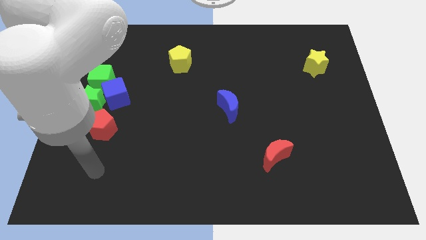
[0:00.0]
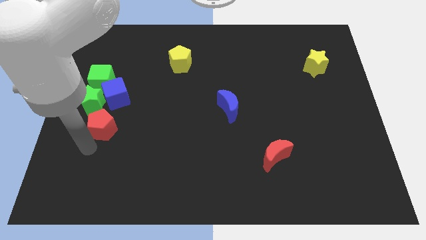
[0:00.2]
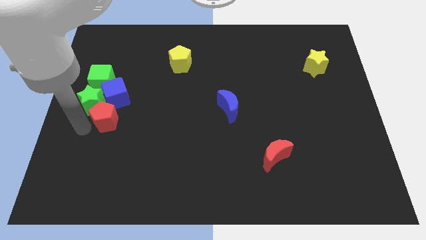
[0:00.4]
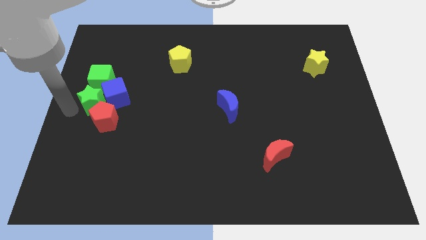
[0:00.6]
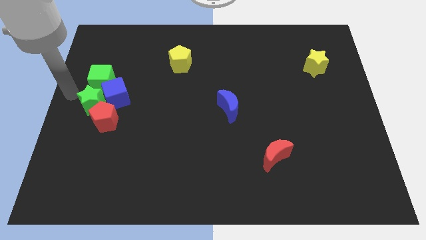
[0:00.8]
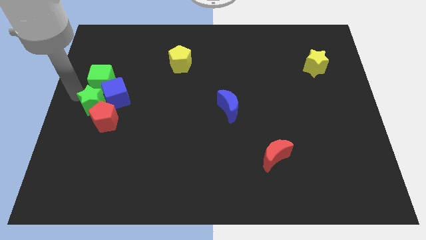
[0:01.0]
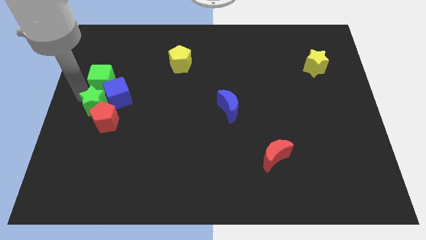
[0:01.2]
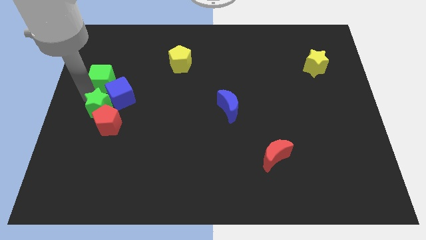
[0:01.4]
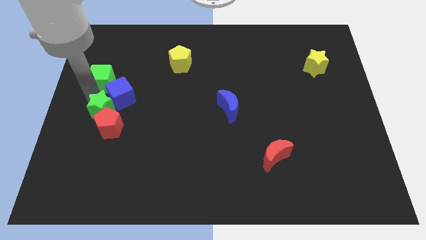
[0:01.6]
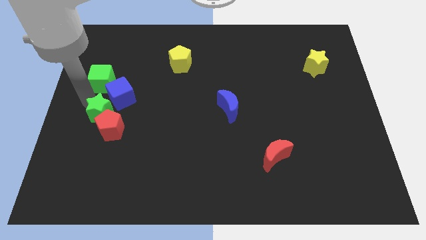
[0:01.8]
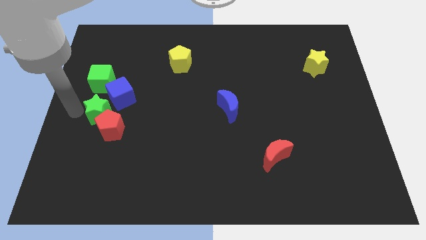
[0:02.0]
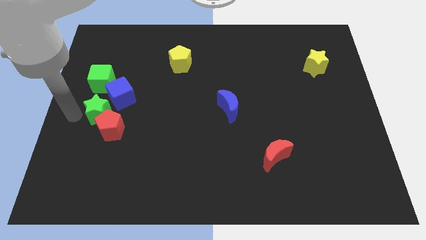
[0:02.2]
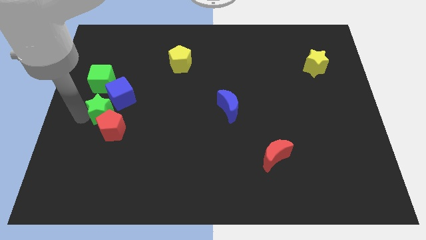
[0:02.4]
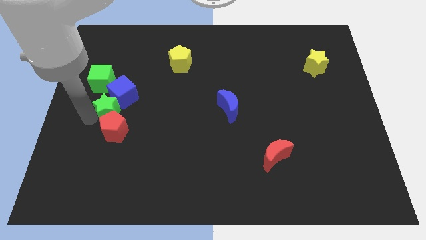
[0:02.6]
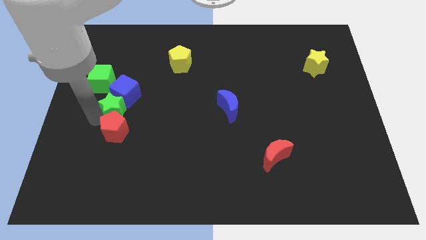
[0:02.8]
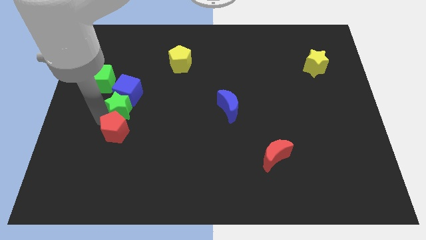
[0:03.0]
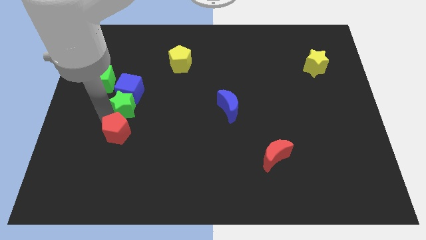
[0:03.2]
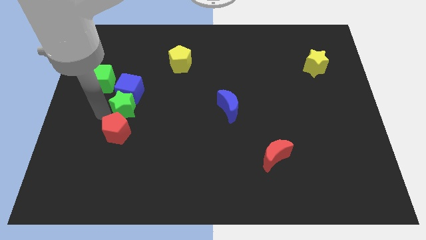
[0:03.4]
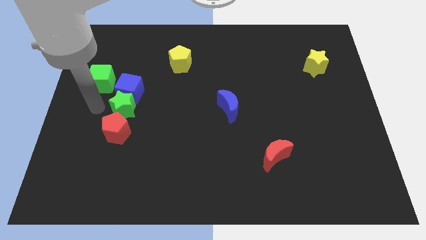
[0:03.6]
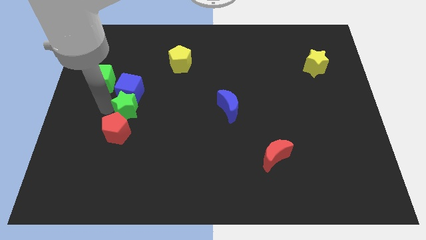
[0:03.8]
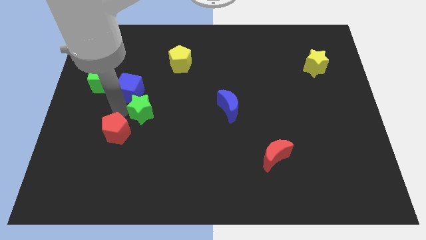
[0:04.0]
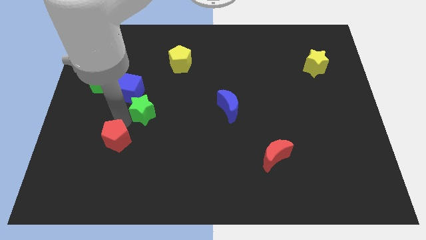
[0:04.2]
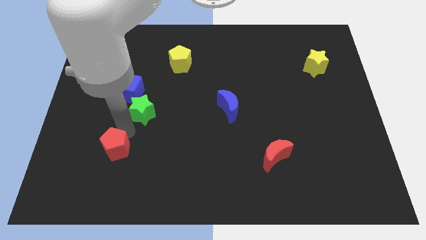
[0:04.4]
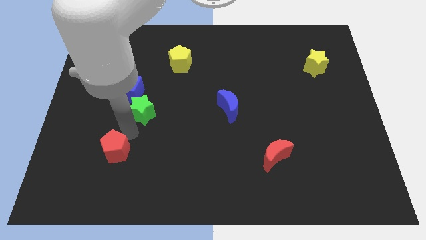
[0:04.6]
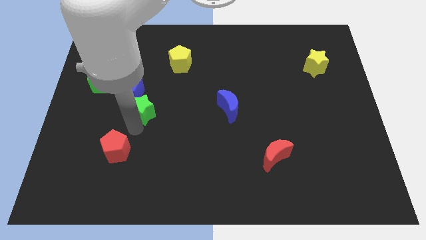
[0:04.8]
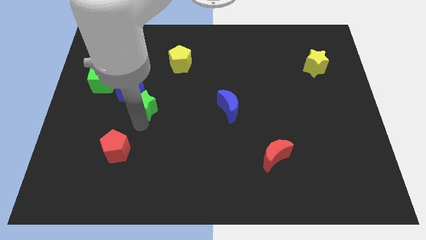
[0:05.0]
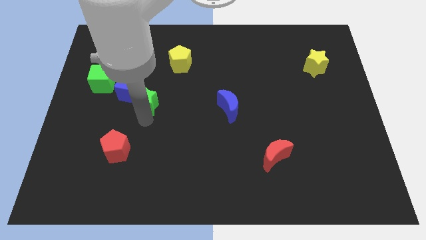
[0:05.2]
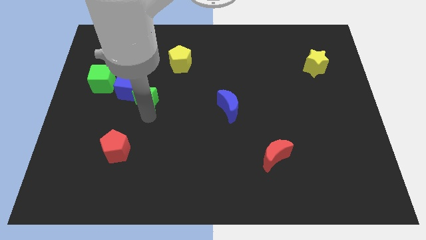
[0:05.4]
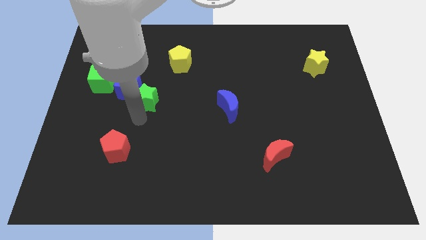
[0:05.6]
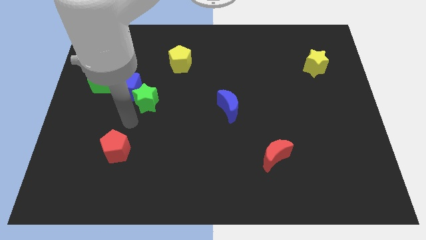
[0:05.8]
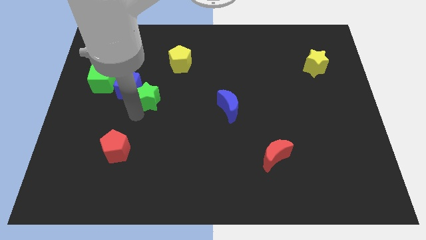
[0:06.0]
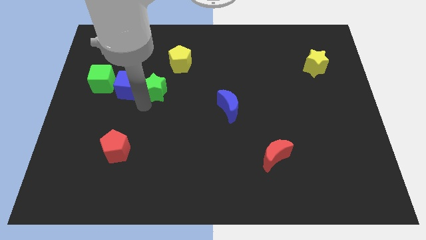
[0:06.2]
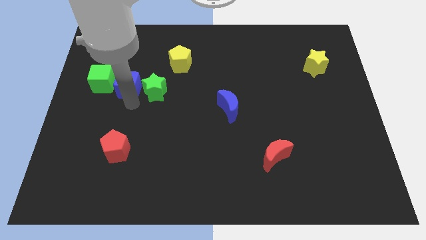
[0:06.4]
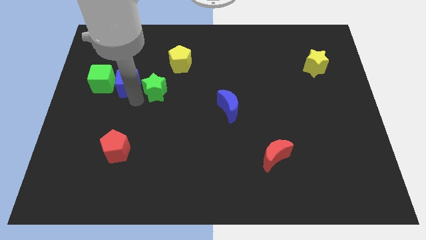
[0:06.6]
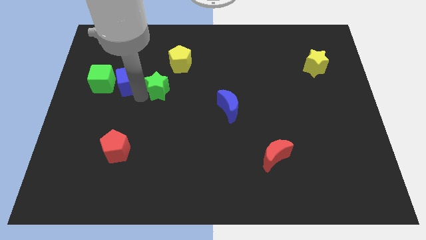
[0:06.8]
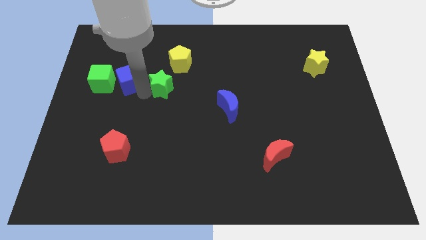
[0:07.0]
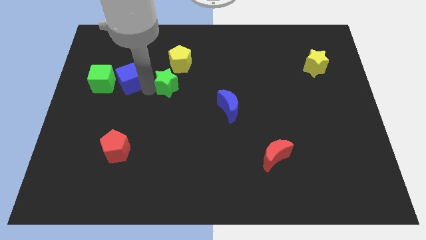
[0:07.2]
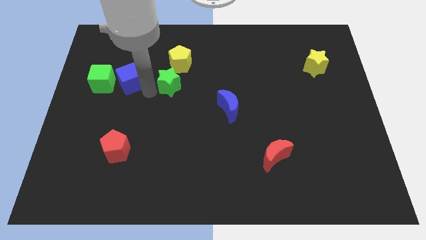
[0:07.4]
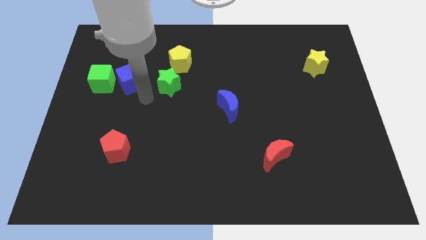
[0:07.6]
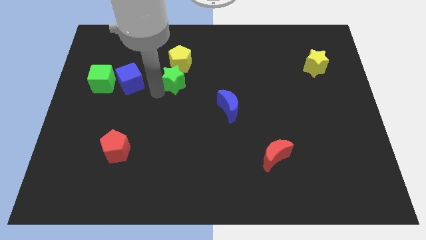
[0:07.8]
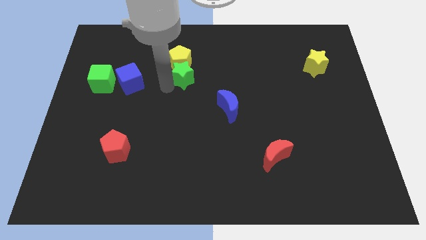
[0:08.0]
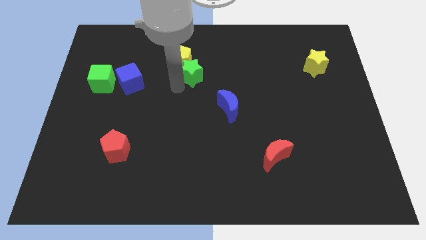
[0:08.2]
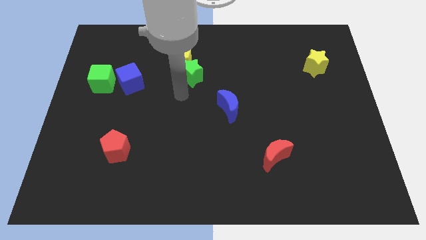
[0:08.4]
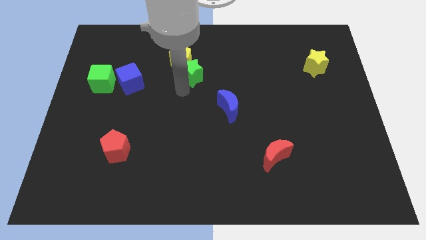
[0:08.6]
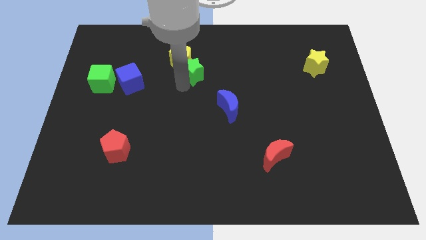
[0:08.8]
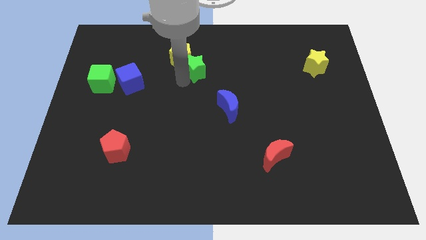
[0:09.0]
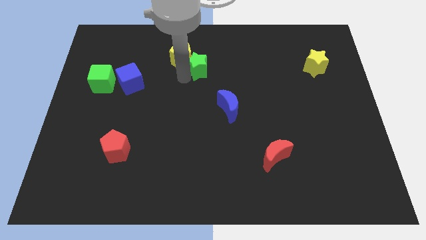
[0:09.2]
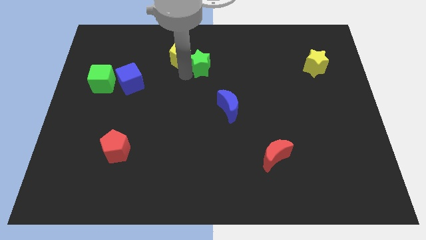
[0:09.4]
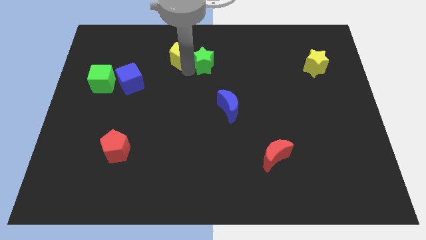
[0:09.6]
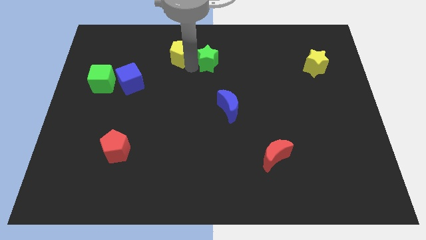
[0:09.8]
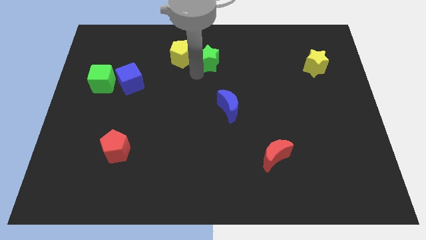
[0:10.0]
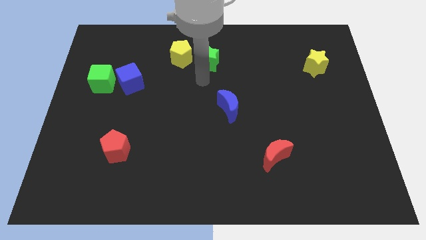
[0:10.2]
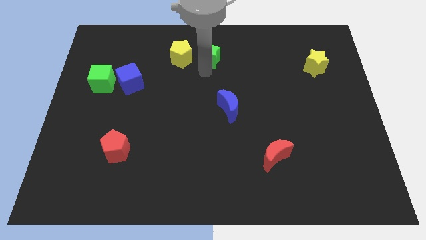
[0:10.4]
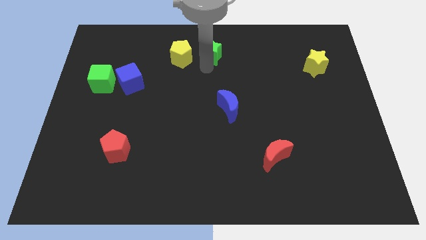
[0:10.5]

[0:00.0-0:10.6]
slide the green star to the top

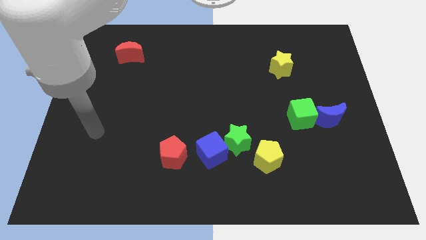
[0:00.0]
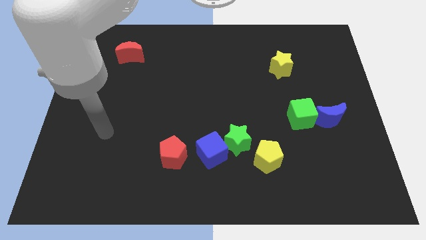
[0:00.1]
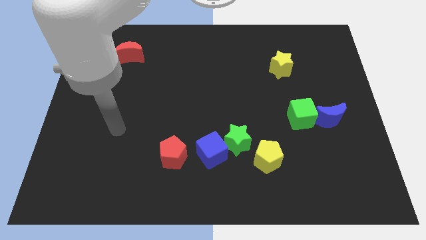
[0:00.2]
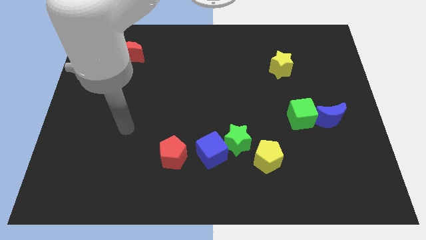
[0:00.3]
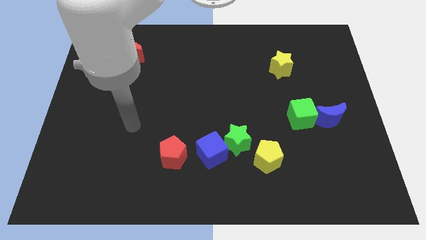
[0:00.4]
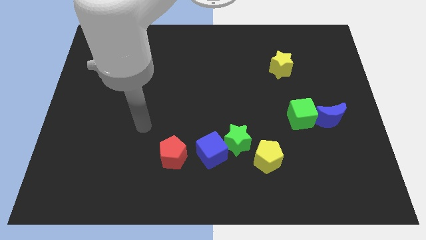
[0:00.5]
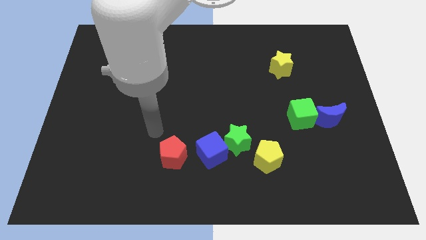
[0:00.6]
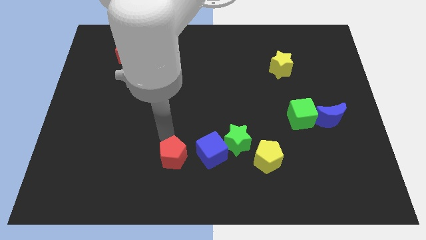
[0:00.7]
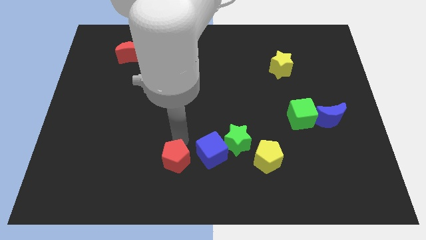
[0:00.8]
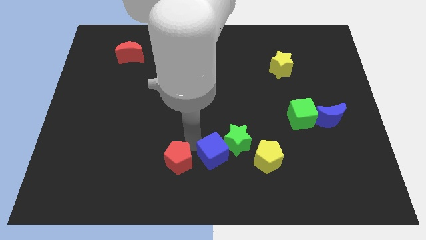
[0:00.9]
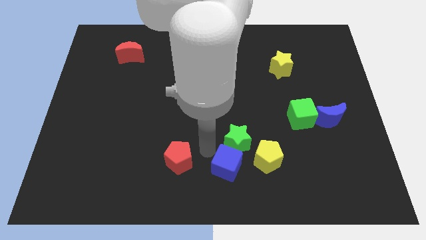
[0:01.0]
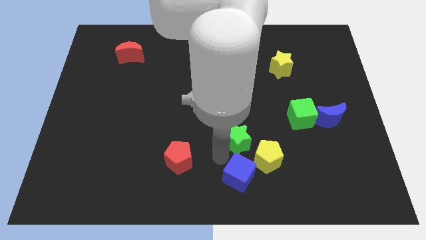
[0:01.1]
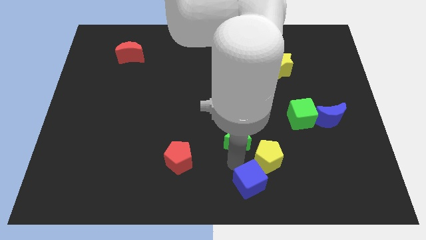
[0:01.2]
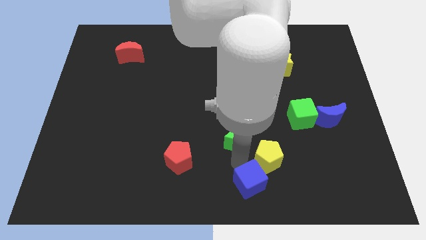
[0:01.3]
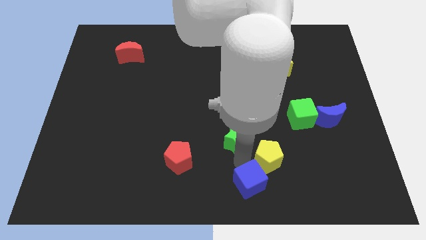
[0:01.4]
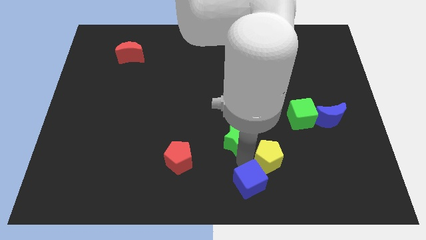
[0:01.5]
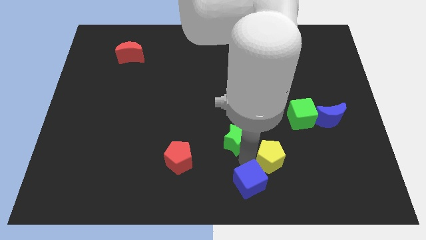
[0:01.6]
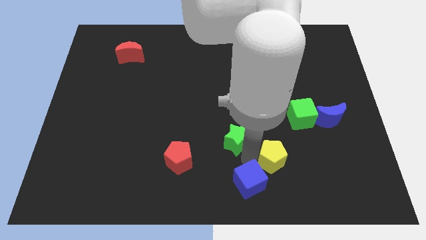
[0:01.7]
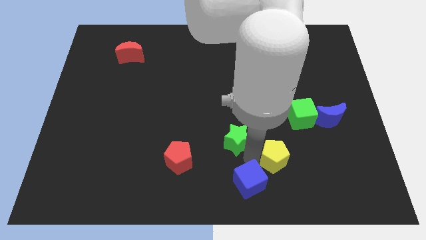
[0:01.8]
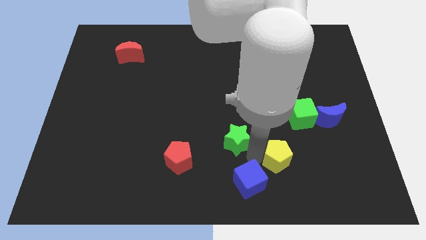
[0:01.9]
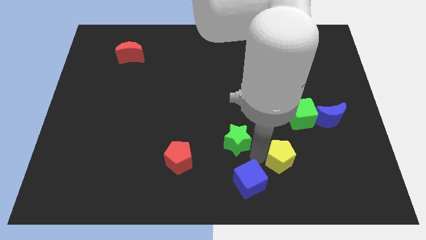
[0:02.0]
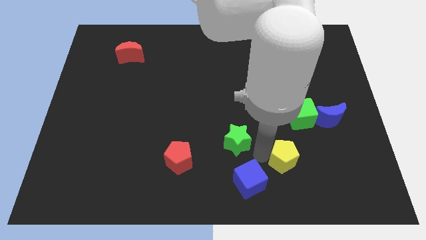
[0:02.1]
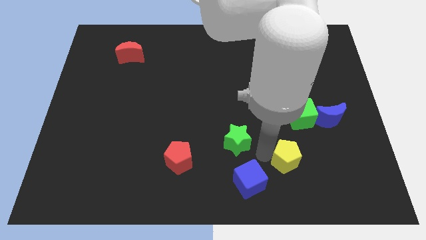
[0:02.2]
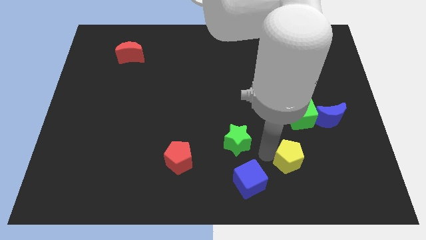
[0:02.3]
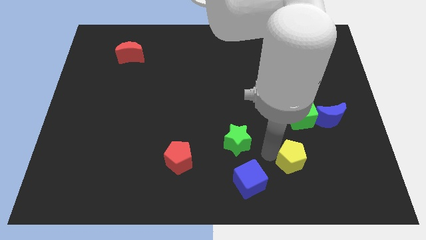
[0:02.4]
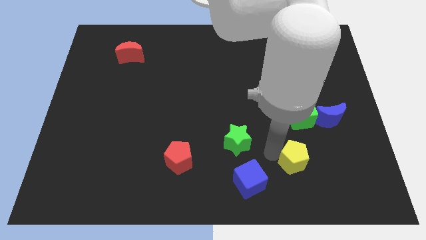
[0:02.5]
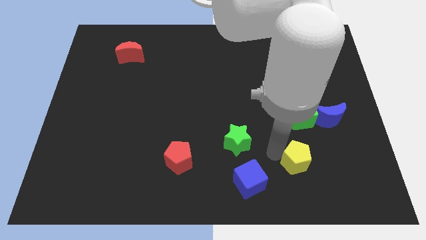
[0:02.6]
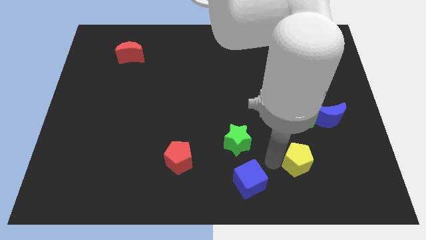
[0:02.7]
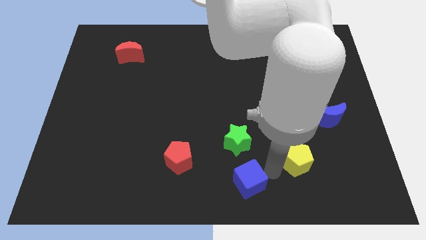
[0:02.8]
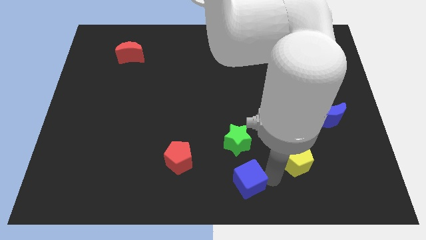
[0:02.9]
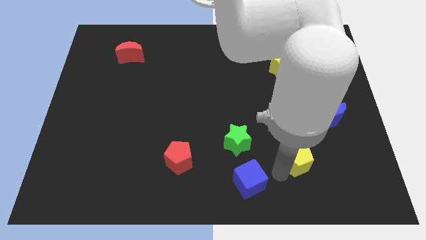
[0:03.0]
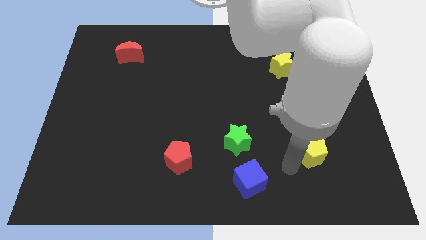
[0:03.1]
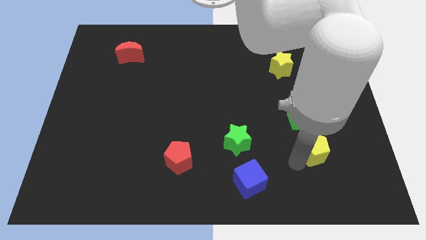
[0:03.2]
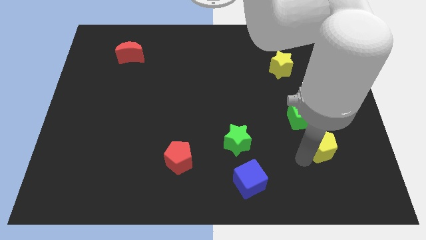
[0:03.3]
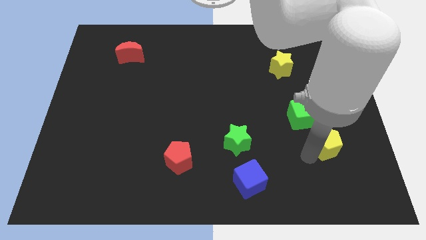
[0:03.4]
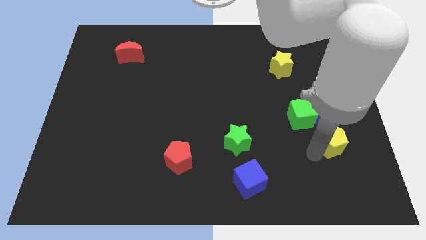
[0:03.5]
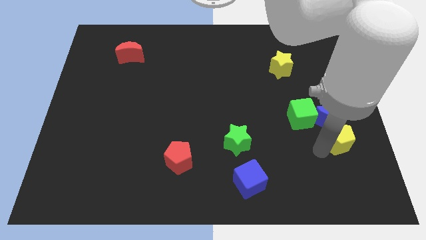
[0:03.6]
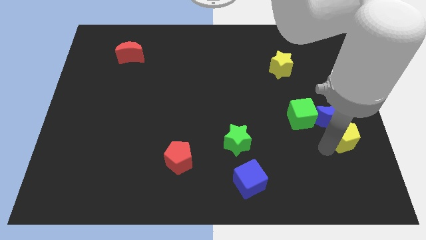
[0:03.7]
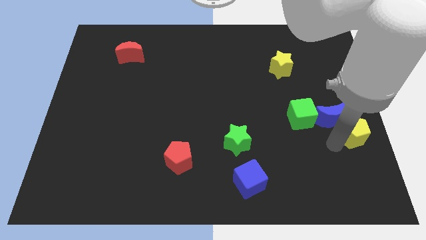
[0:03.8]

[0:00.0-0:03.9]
push the yellow pentagon to the center right
